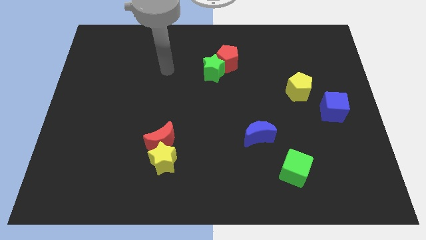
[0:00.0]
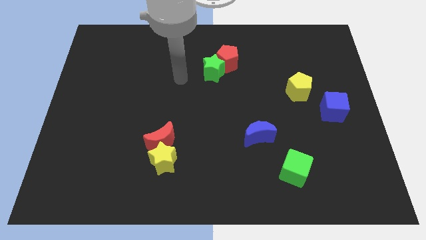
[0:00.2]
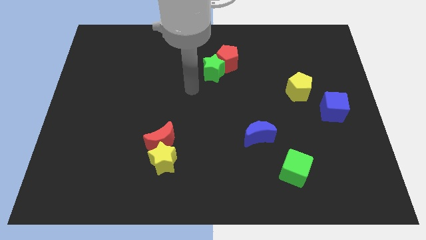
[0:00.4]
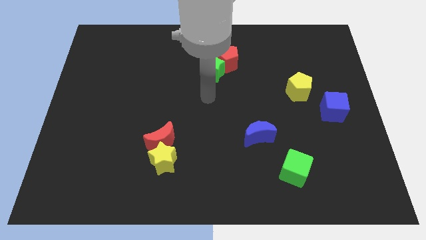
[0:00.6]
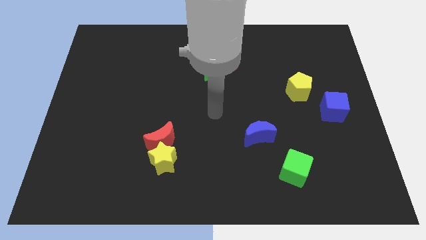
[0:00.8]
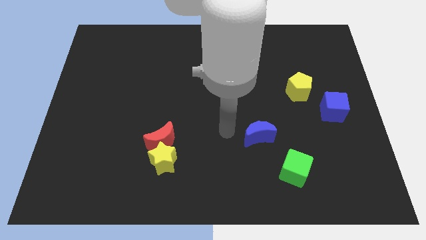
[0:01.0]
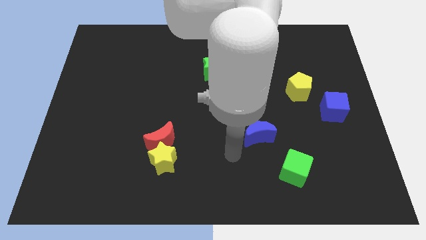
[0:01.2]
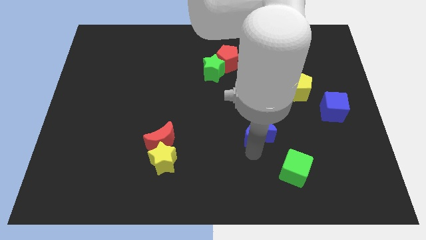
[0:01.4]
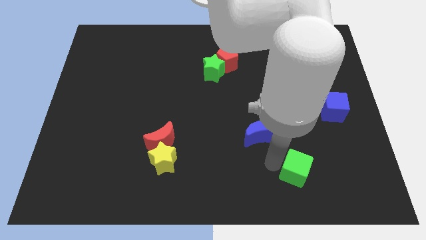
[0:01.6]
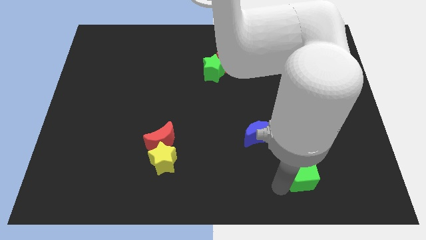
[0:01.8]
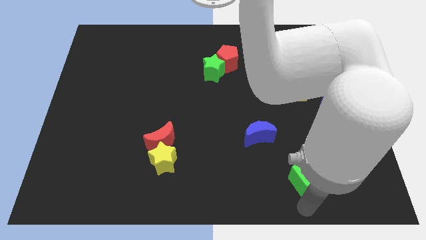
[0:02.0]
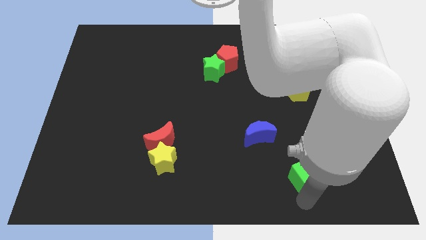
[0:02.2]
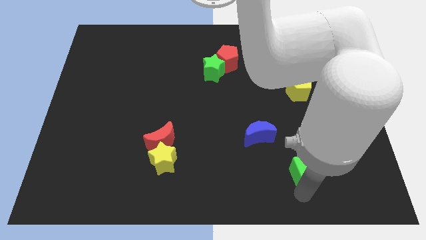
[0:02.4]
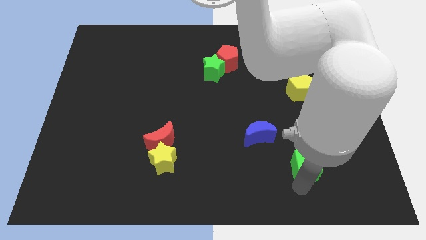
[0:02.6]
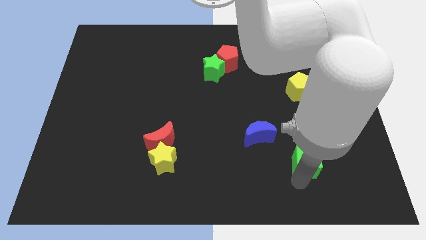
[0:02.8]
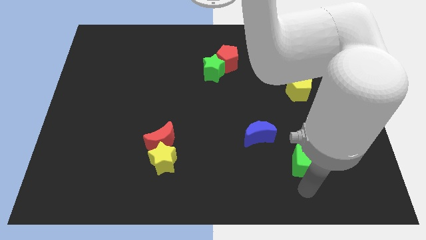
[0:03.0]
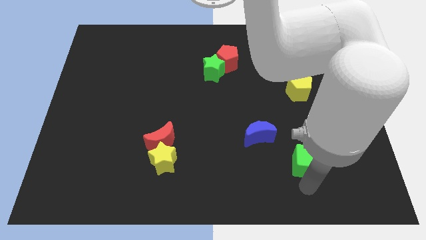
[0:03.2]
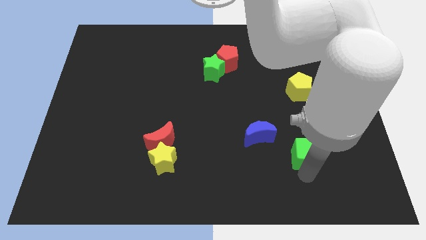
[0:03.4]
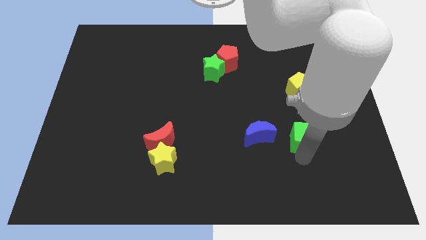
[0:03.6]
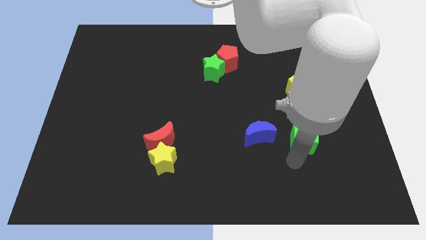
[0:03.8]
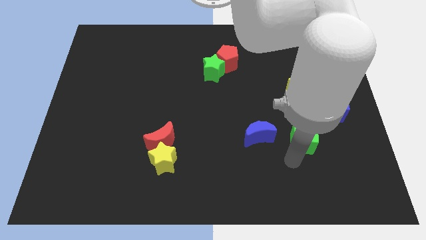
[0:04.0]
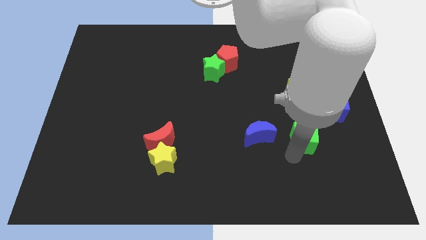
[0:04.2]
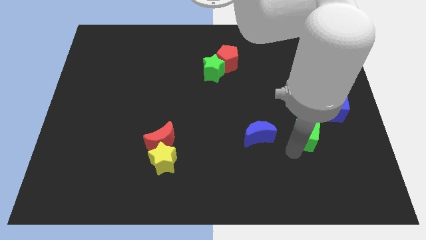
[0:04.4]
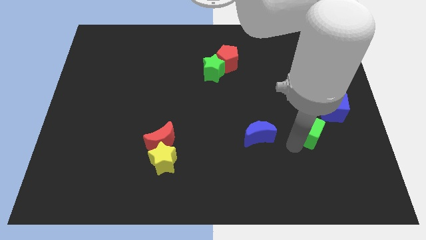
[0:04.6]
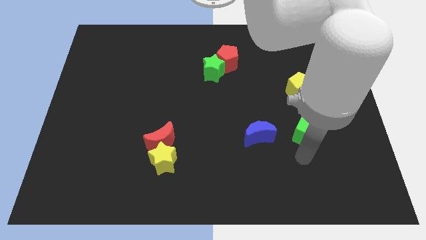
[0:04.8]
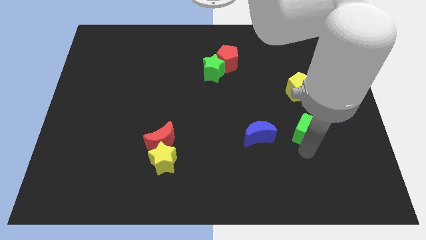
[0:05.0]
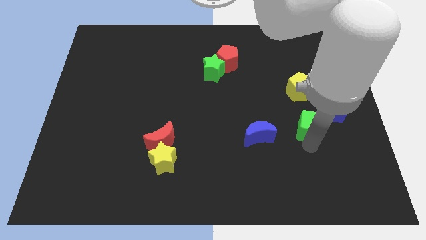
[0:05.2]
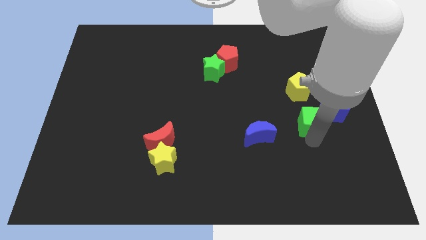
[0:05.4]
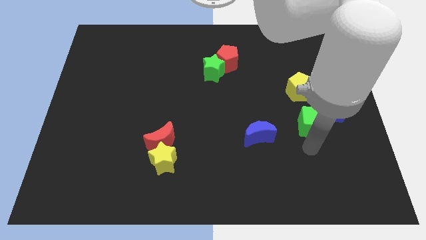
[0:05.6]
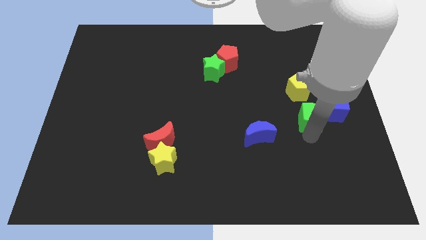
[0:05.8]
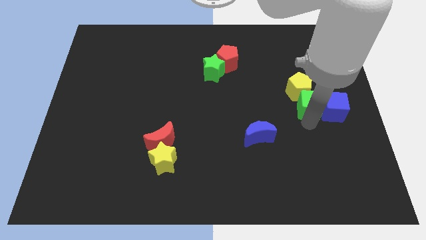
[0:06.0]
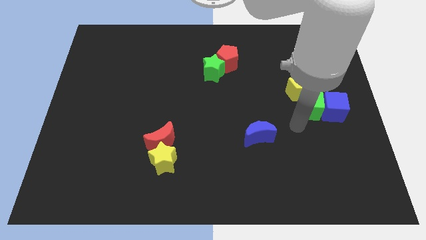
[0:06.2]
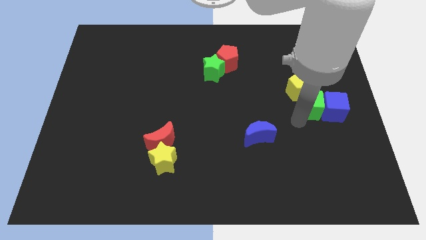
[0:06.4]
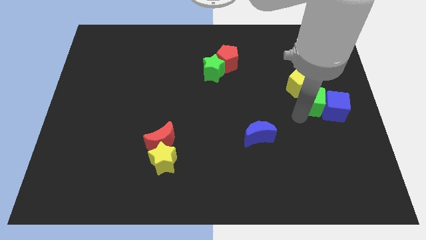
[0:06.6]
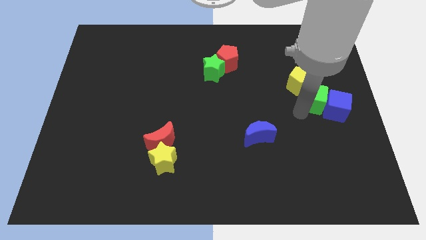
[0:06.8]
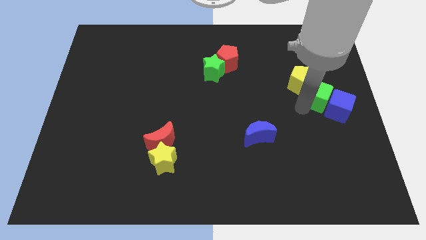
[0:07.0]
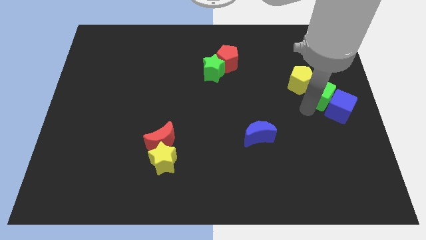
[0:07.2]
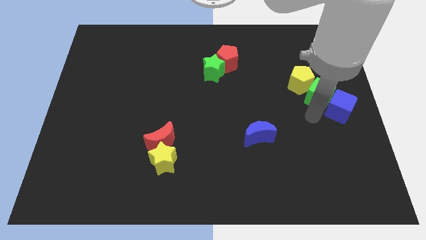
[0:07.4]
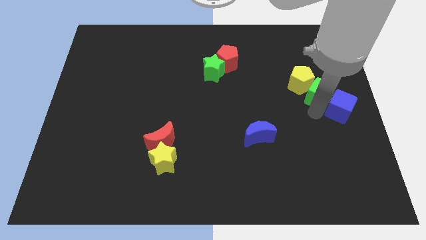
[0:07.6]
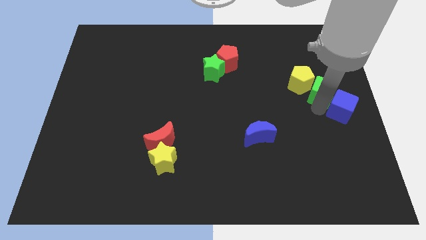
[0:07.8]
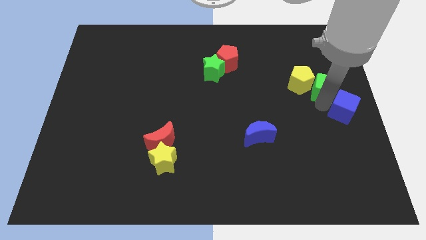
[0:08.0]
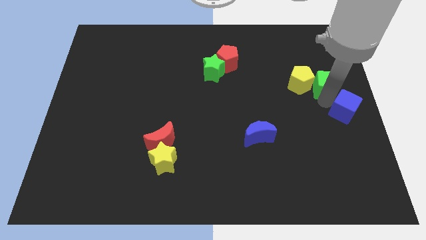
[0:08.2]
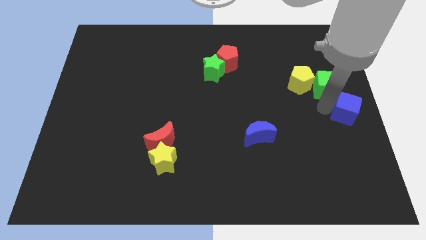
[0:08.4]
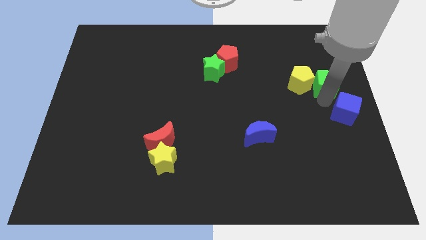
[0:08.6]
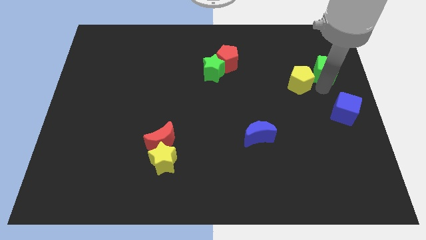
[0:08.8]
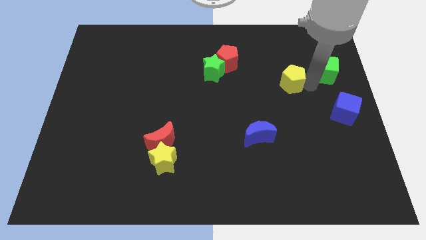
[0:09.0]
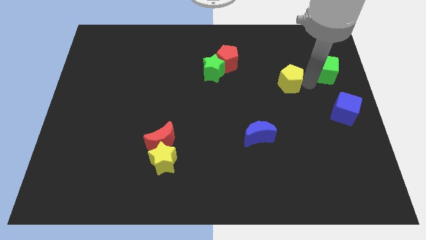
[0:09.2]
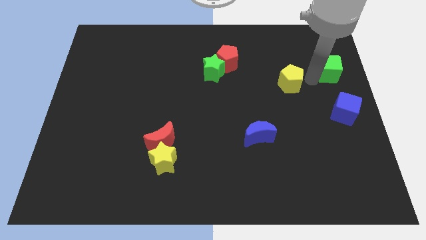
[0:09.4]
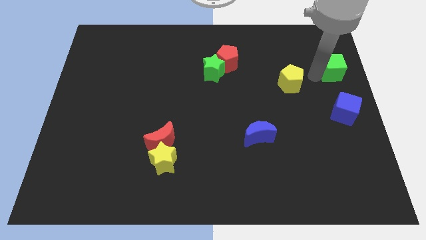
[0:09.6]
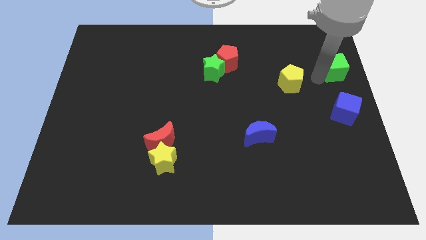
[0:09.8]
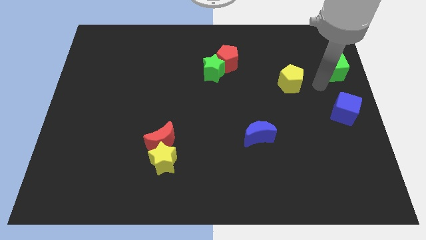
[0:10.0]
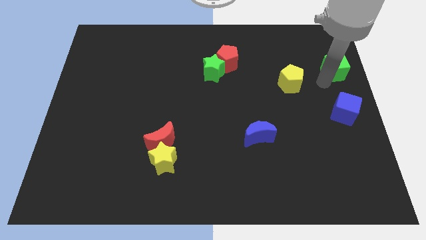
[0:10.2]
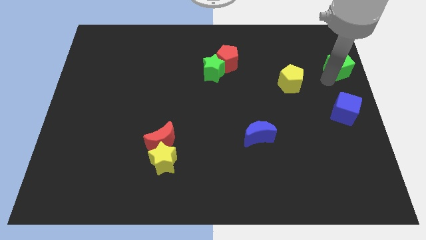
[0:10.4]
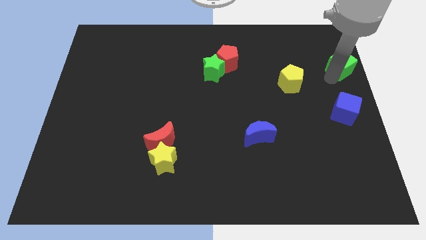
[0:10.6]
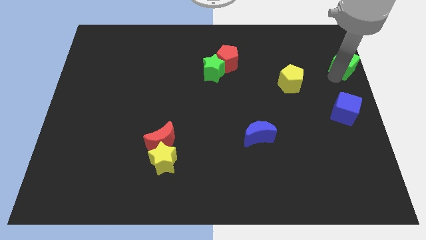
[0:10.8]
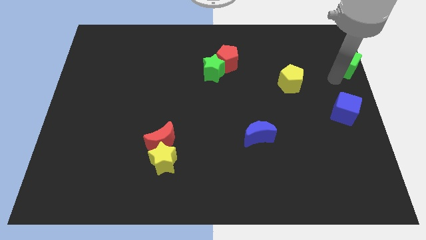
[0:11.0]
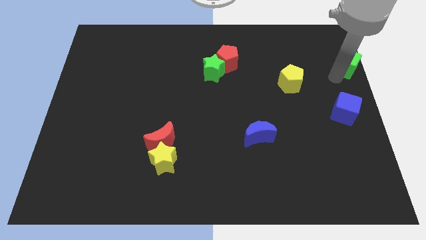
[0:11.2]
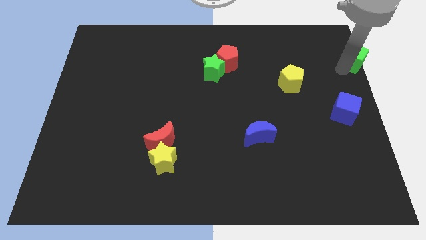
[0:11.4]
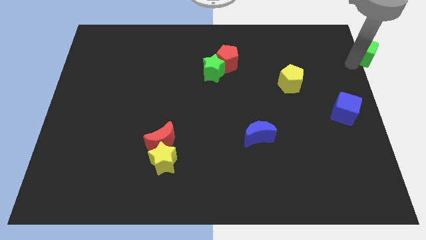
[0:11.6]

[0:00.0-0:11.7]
push the green cube to the upper right corner

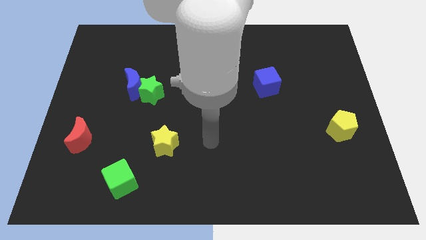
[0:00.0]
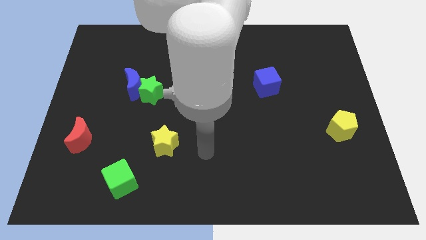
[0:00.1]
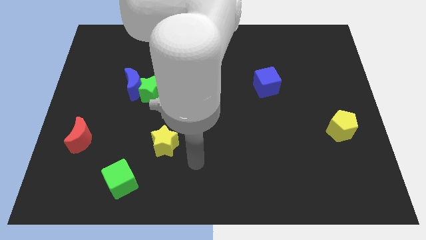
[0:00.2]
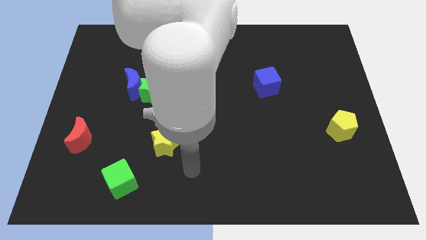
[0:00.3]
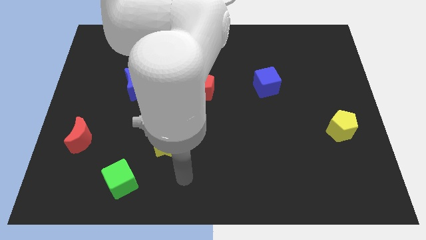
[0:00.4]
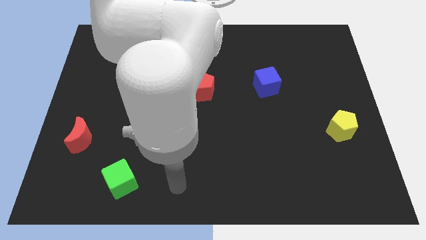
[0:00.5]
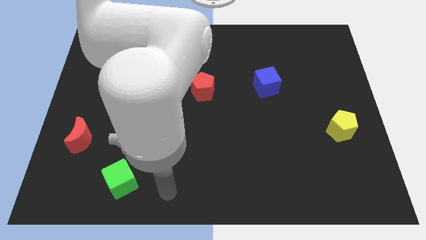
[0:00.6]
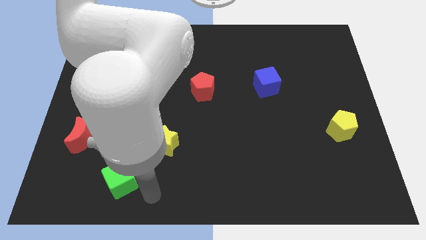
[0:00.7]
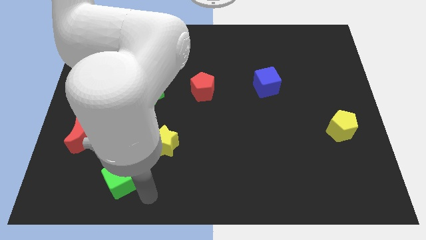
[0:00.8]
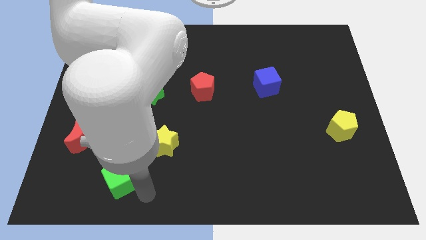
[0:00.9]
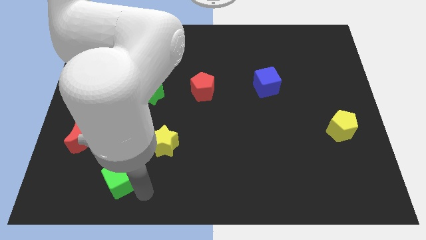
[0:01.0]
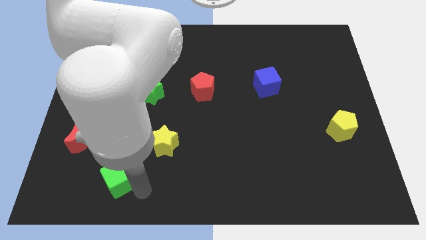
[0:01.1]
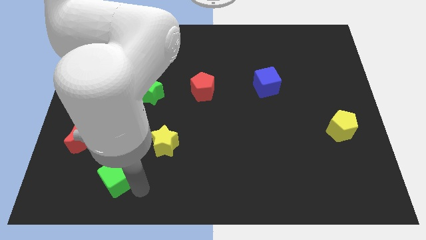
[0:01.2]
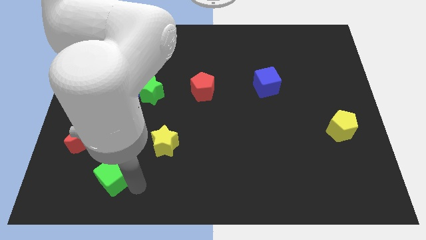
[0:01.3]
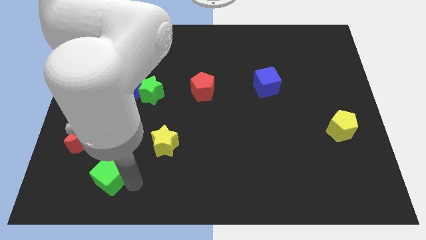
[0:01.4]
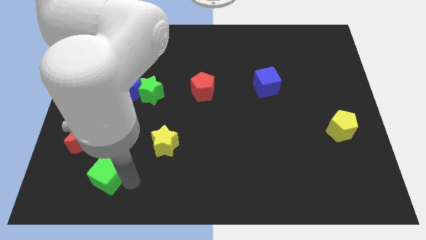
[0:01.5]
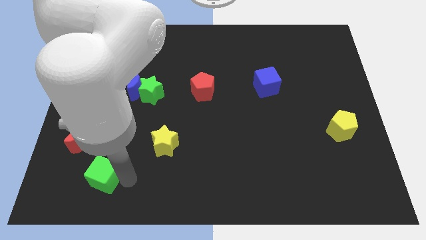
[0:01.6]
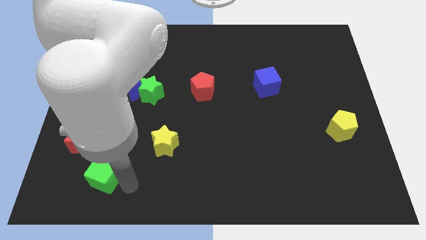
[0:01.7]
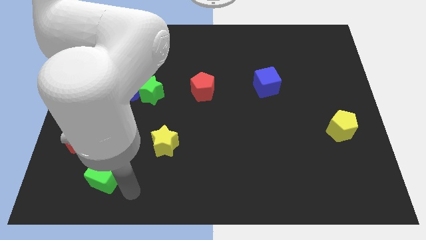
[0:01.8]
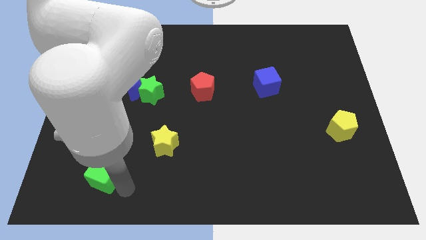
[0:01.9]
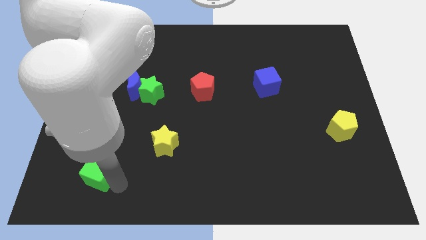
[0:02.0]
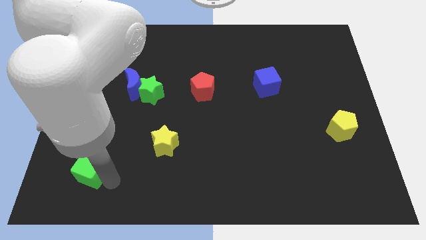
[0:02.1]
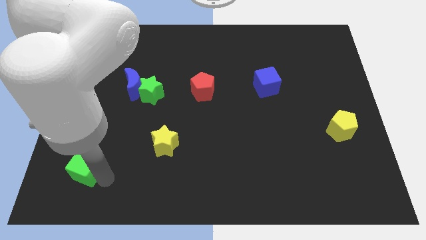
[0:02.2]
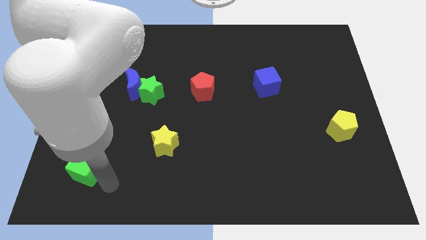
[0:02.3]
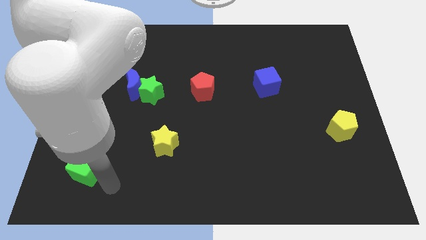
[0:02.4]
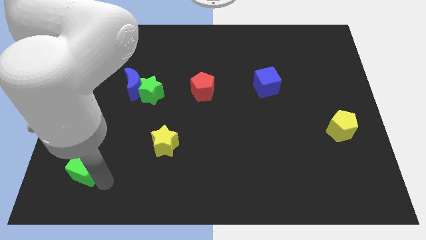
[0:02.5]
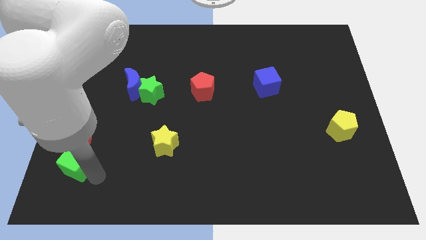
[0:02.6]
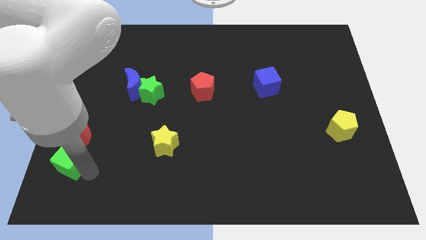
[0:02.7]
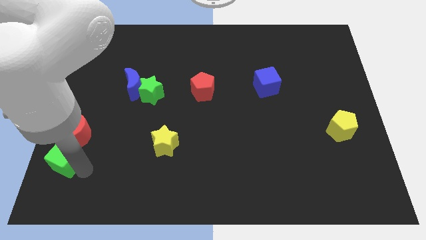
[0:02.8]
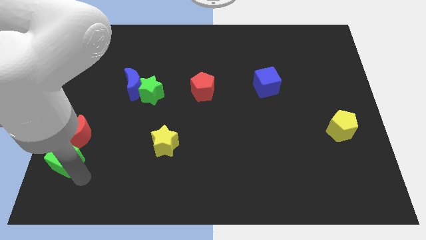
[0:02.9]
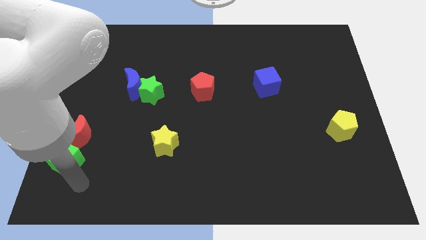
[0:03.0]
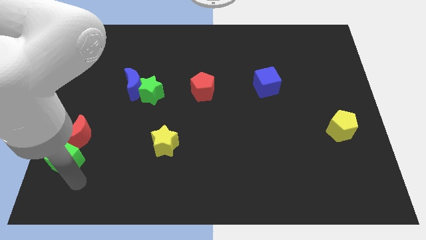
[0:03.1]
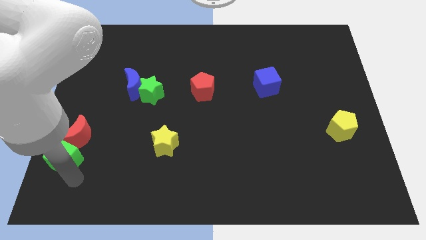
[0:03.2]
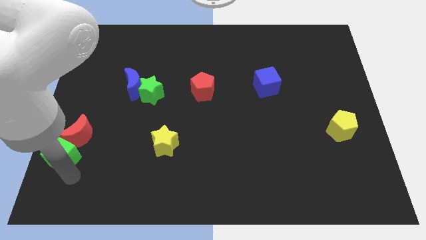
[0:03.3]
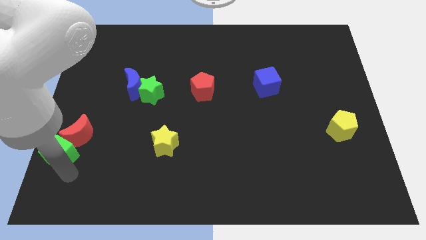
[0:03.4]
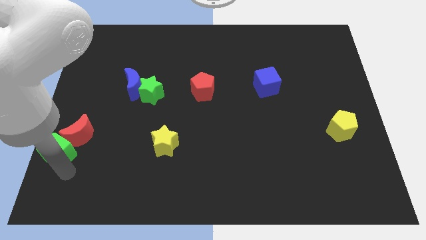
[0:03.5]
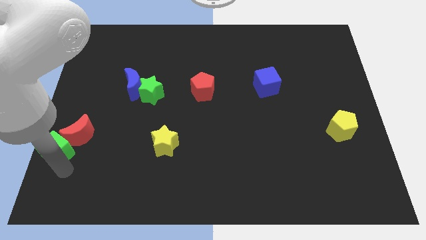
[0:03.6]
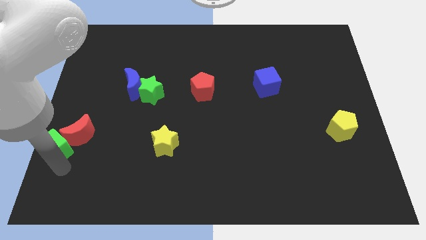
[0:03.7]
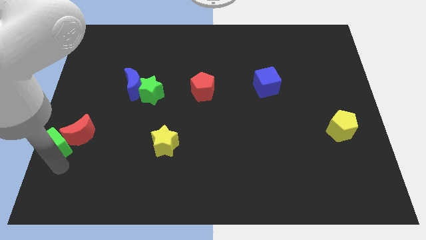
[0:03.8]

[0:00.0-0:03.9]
push the green cube to the left side
